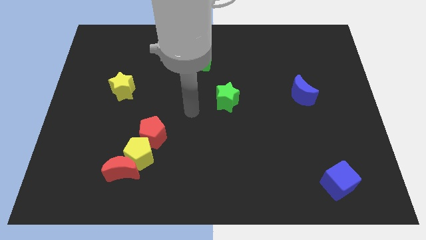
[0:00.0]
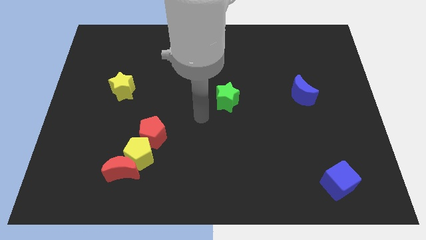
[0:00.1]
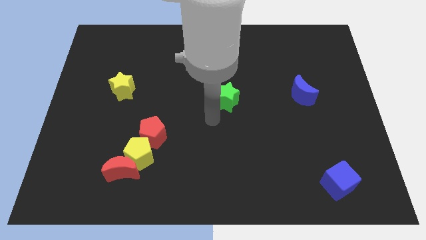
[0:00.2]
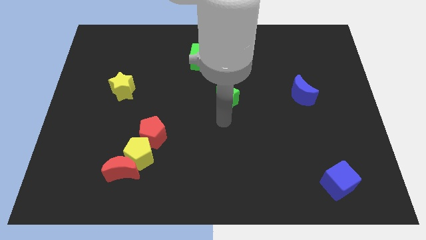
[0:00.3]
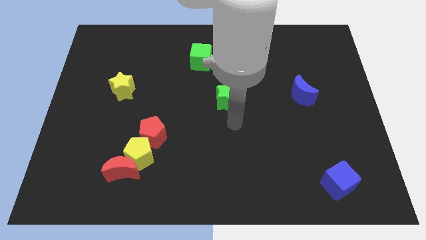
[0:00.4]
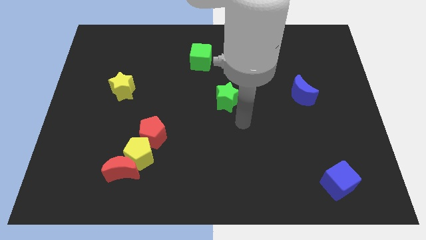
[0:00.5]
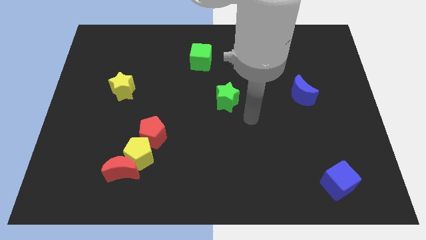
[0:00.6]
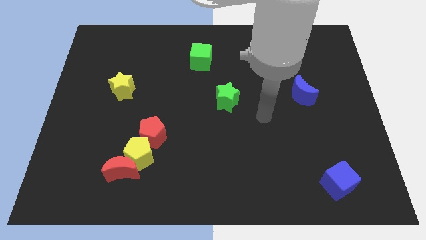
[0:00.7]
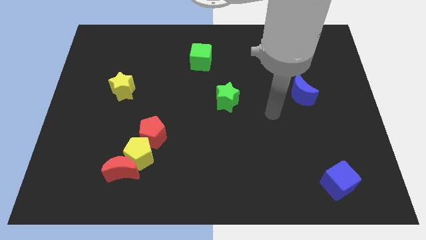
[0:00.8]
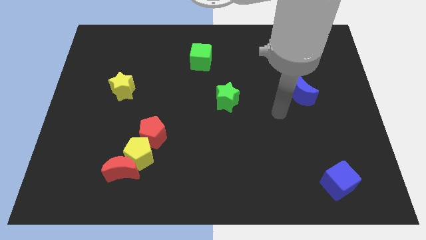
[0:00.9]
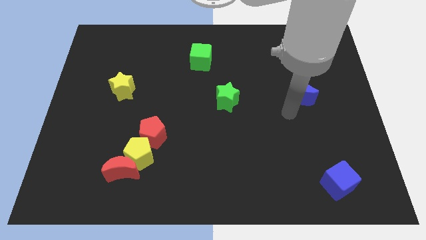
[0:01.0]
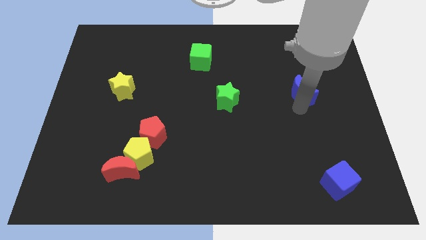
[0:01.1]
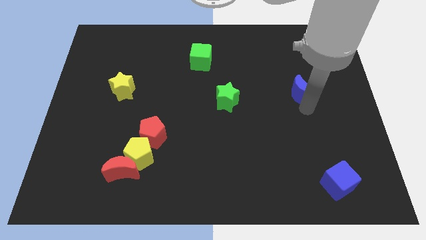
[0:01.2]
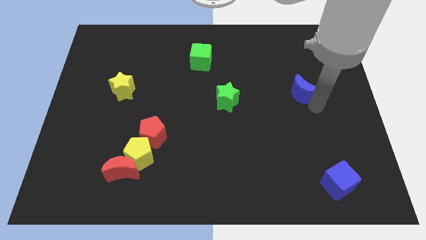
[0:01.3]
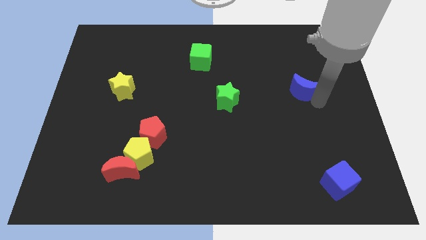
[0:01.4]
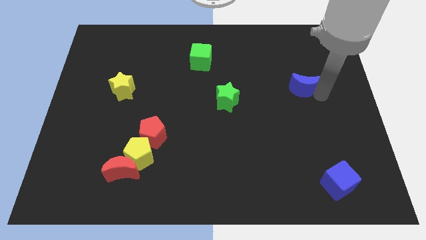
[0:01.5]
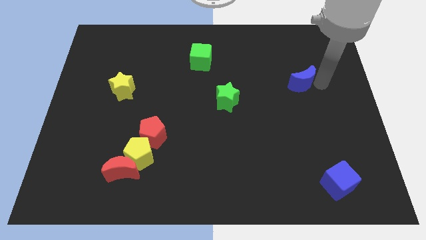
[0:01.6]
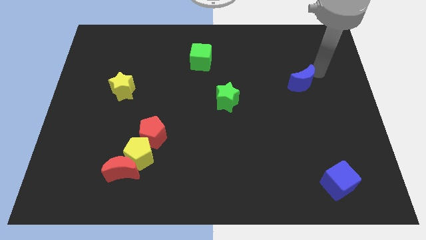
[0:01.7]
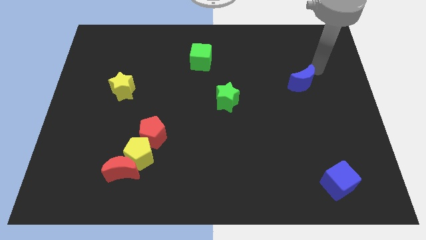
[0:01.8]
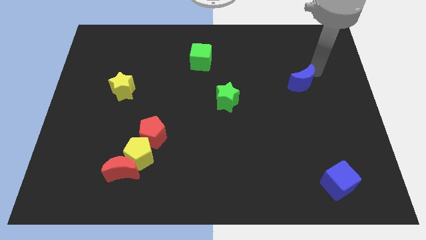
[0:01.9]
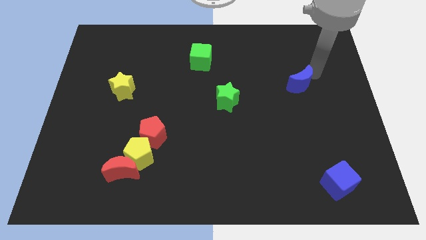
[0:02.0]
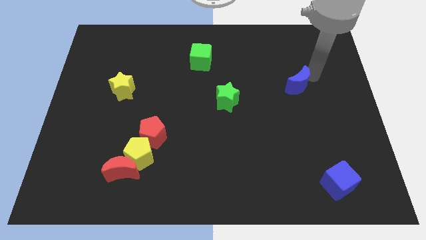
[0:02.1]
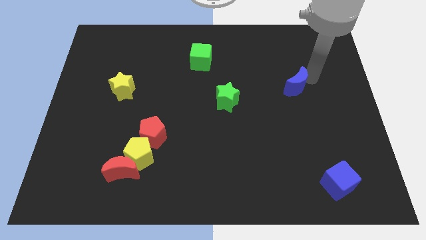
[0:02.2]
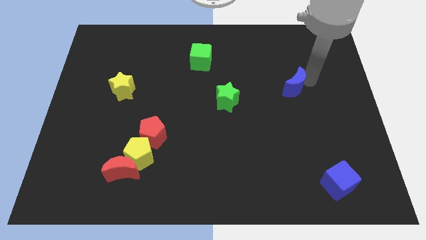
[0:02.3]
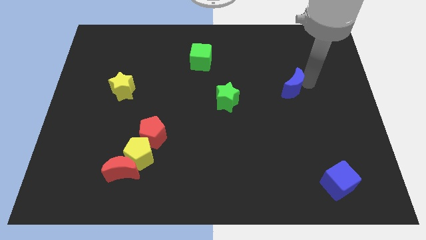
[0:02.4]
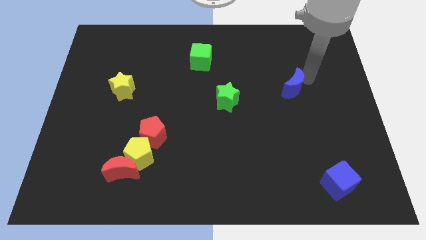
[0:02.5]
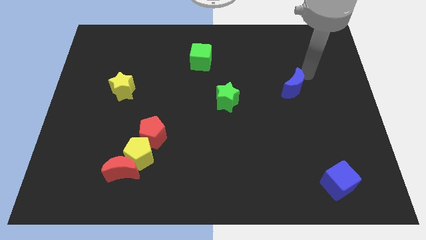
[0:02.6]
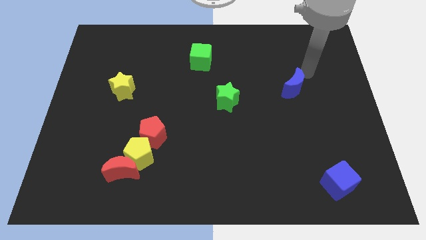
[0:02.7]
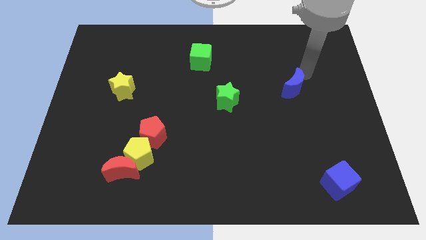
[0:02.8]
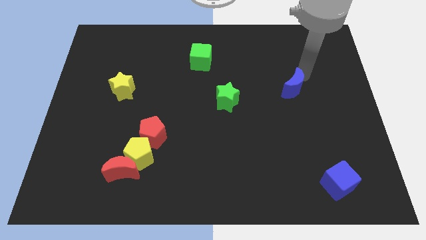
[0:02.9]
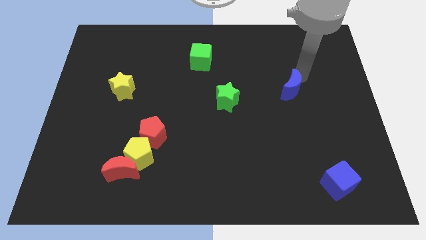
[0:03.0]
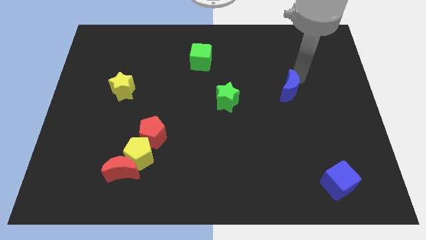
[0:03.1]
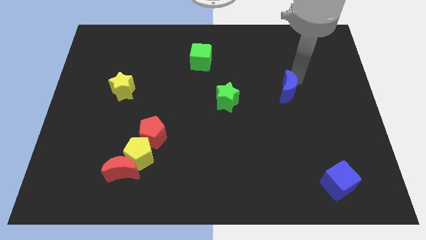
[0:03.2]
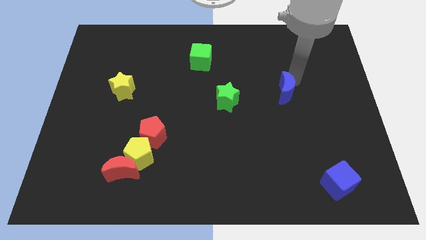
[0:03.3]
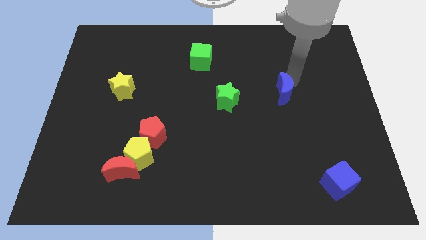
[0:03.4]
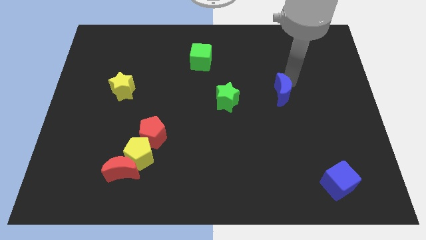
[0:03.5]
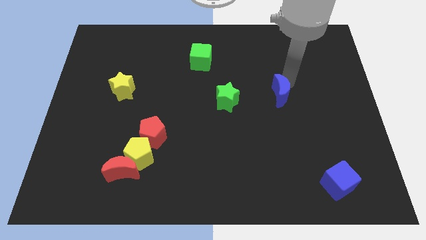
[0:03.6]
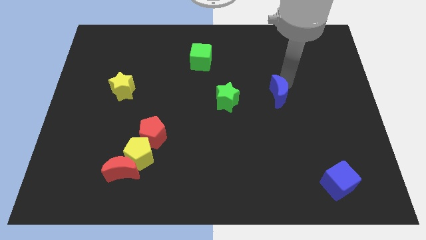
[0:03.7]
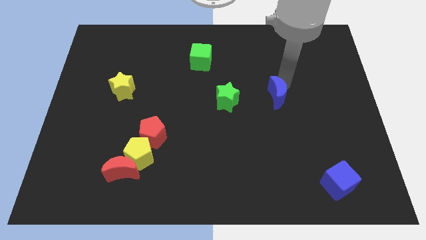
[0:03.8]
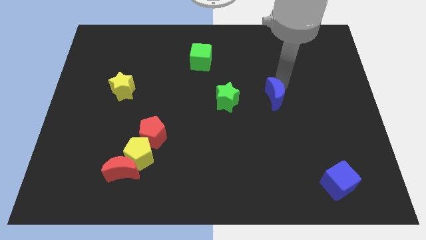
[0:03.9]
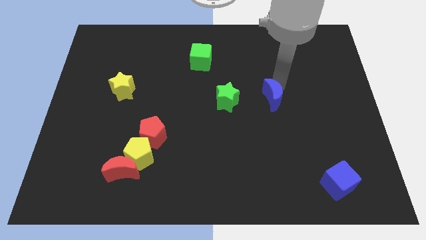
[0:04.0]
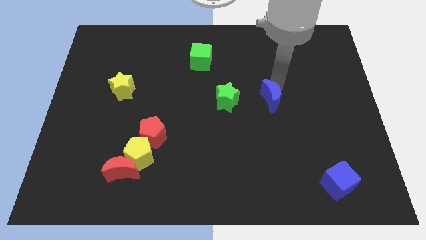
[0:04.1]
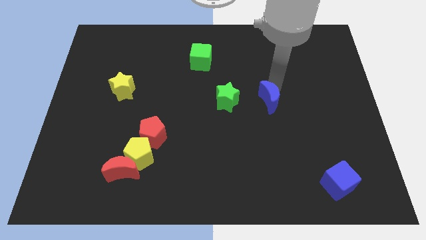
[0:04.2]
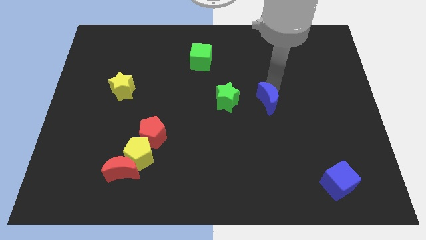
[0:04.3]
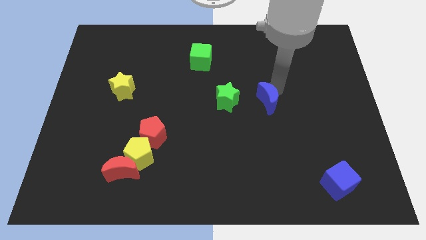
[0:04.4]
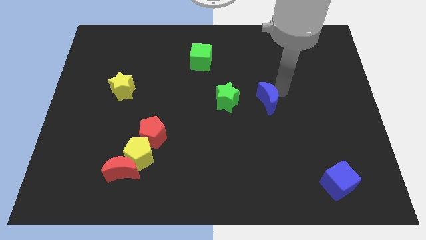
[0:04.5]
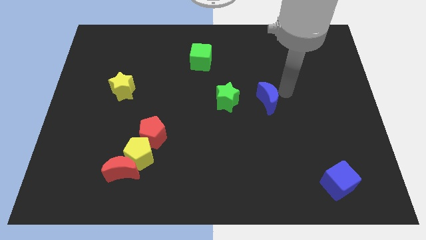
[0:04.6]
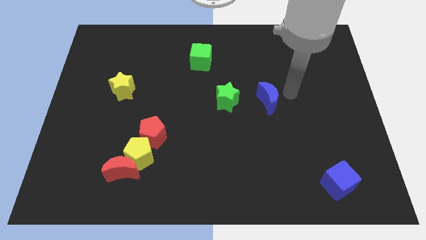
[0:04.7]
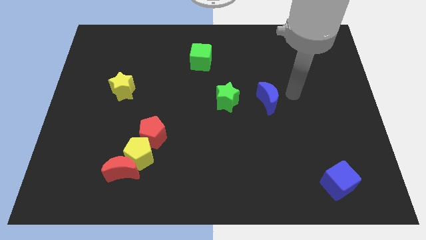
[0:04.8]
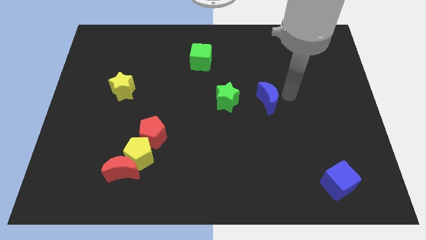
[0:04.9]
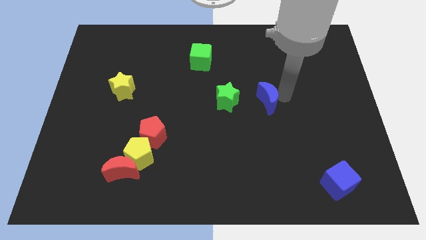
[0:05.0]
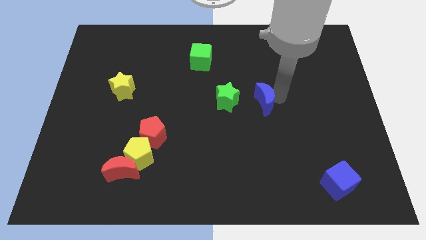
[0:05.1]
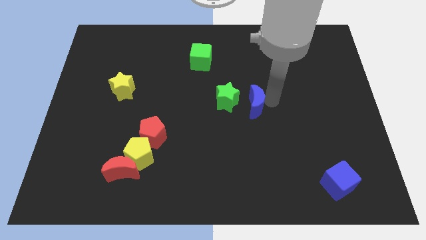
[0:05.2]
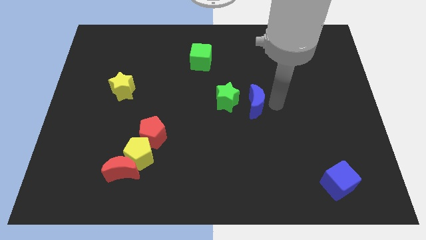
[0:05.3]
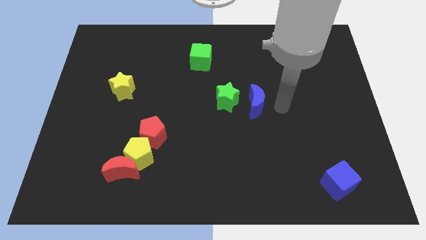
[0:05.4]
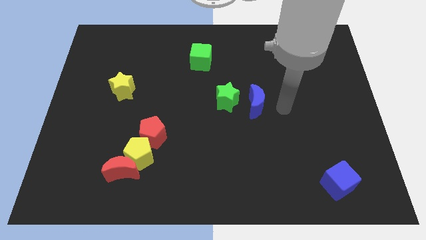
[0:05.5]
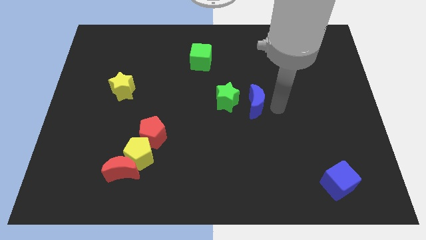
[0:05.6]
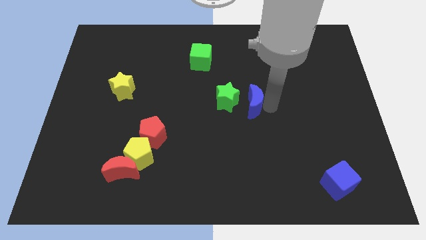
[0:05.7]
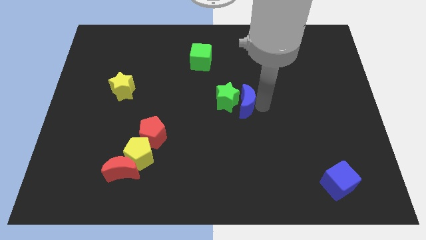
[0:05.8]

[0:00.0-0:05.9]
slide the blue moon next to the green star

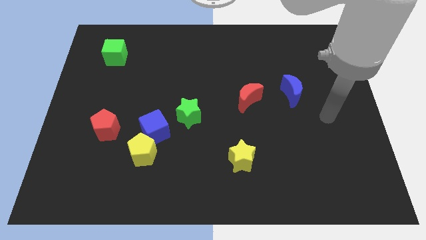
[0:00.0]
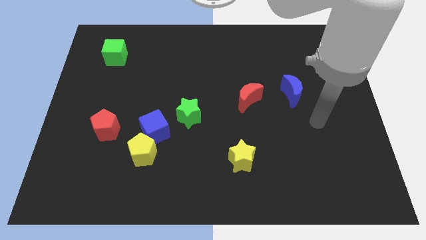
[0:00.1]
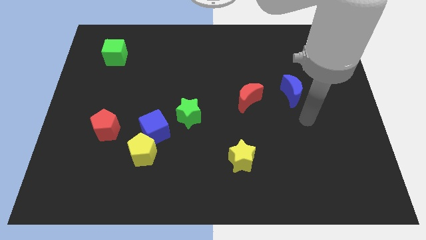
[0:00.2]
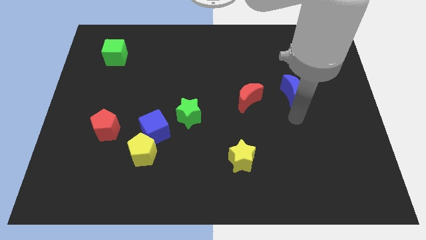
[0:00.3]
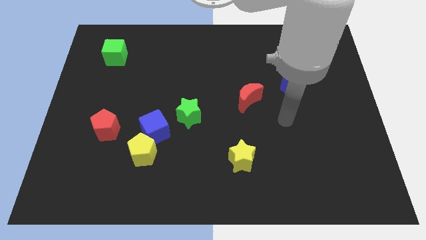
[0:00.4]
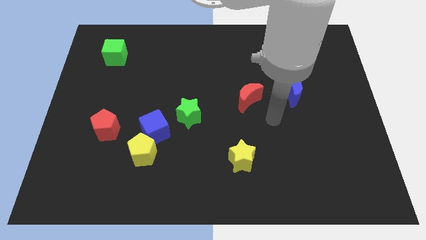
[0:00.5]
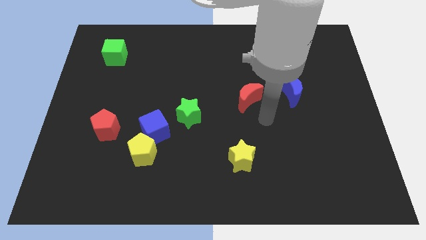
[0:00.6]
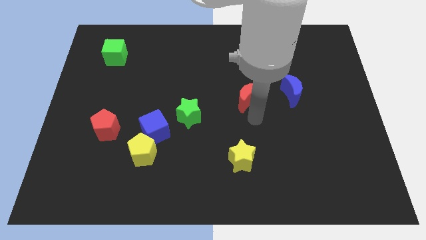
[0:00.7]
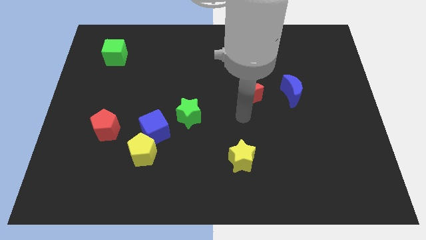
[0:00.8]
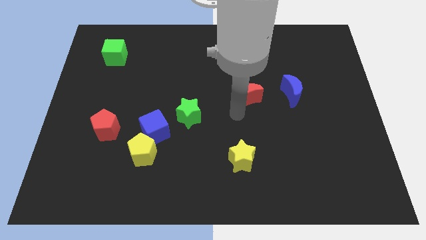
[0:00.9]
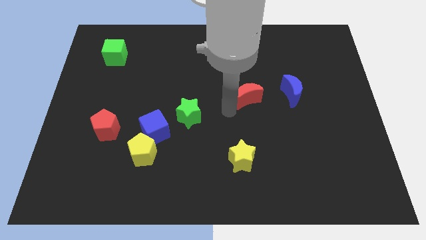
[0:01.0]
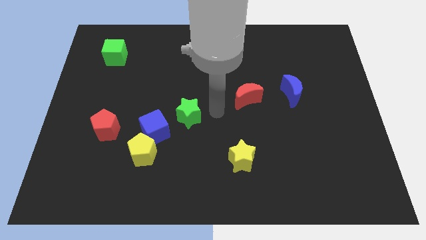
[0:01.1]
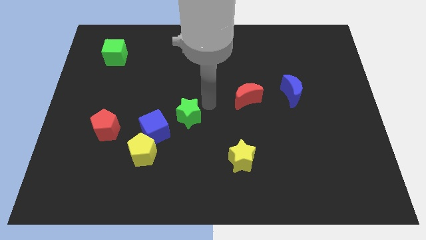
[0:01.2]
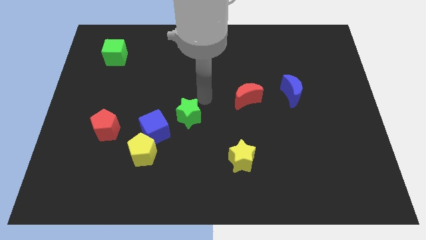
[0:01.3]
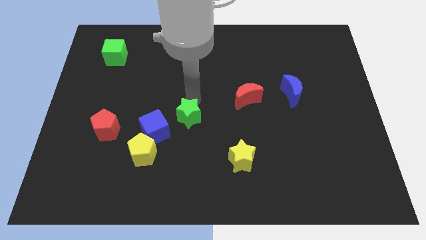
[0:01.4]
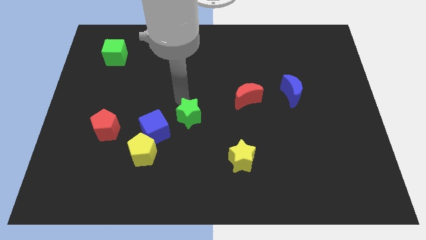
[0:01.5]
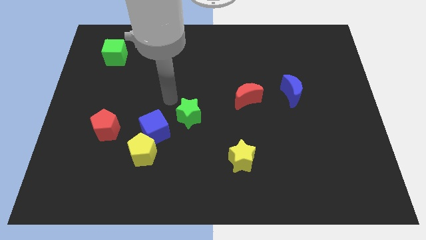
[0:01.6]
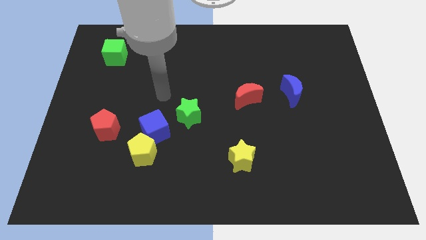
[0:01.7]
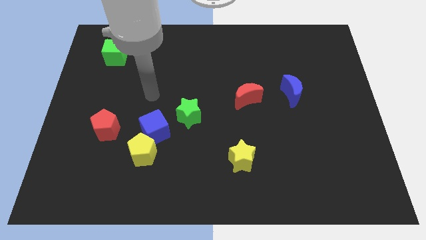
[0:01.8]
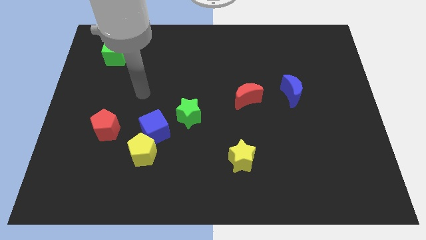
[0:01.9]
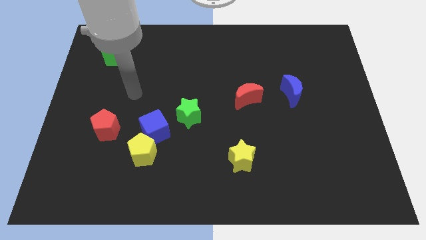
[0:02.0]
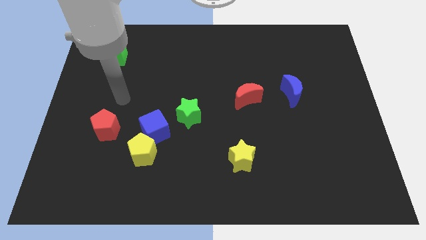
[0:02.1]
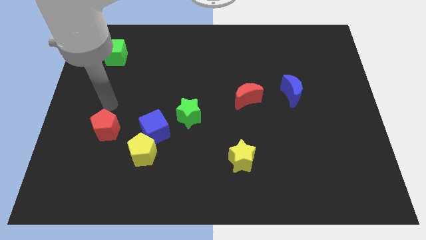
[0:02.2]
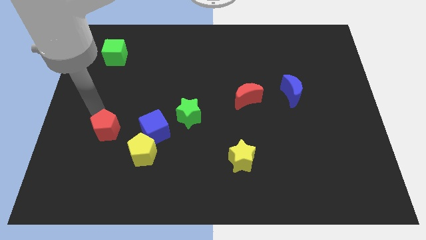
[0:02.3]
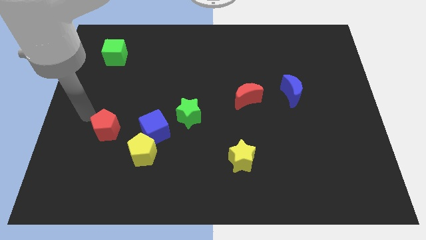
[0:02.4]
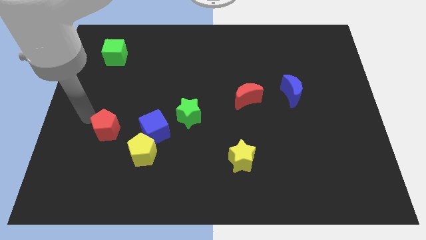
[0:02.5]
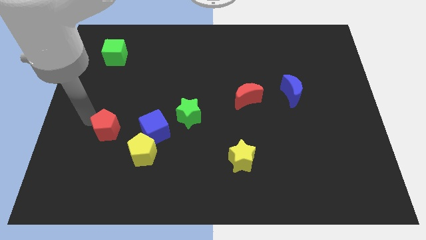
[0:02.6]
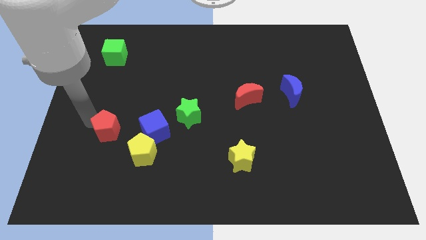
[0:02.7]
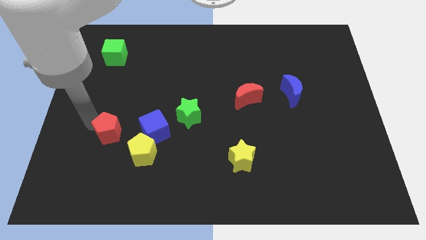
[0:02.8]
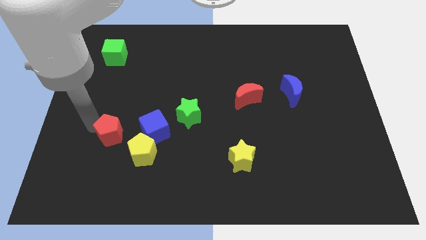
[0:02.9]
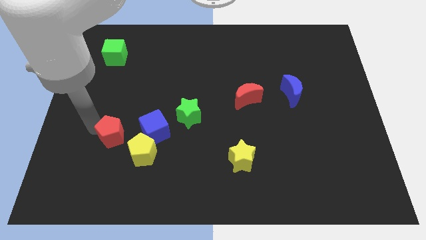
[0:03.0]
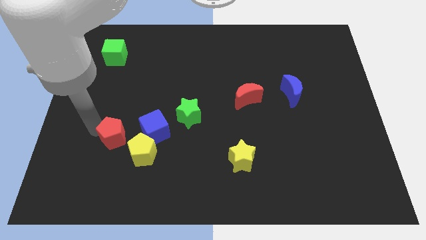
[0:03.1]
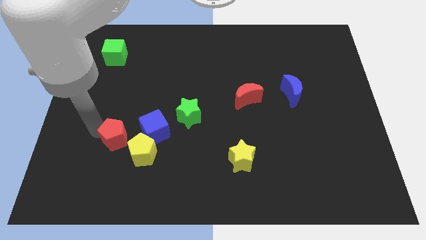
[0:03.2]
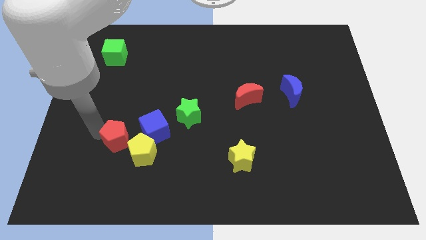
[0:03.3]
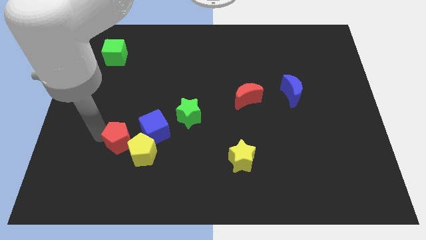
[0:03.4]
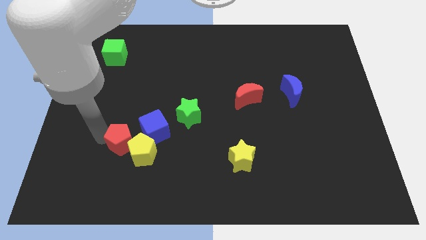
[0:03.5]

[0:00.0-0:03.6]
move the red pentagon next to the yellow pentagon
